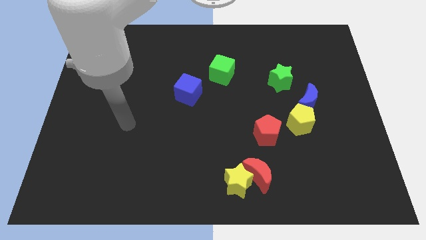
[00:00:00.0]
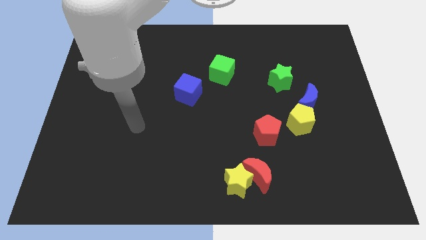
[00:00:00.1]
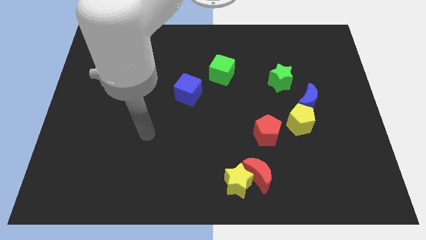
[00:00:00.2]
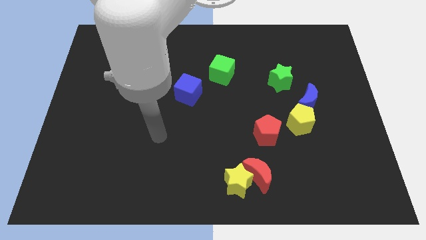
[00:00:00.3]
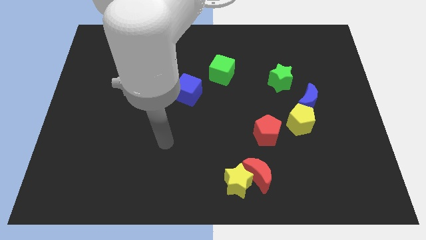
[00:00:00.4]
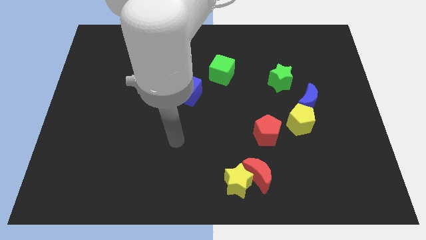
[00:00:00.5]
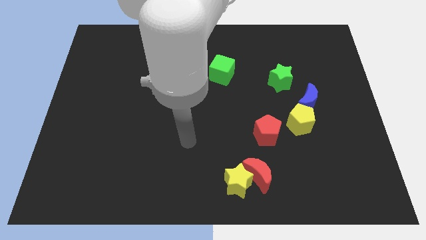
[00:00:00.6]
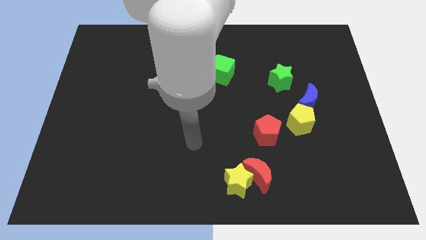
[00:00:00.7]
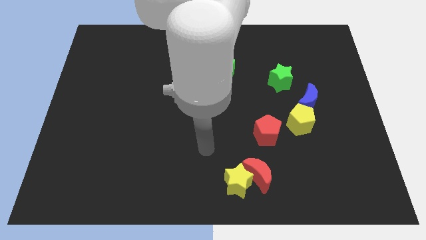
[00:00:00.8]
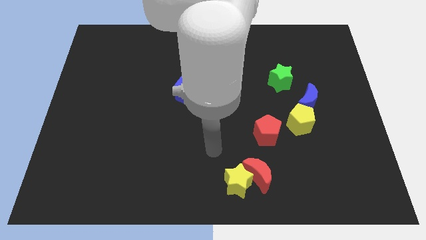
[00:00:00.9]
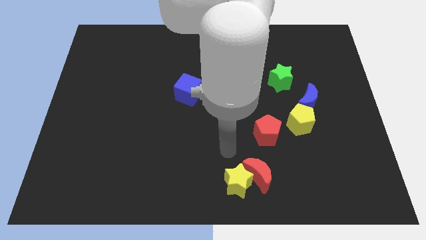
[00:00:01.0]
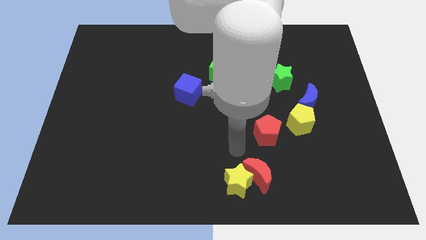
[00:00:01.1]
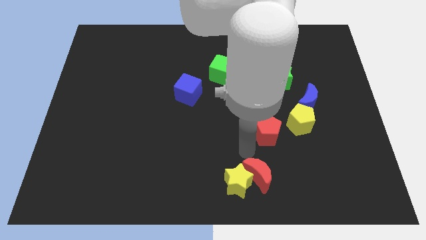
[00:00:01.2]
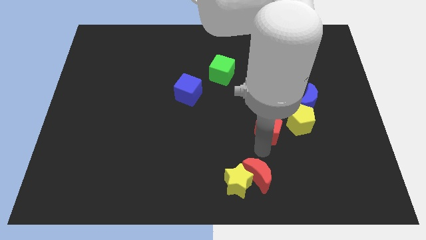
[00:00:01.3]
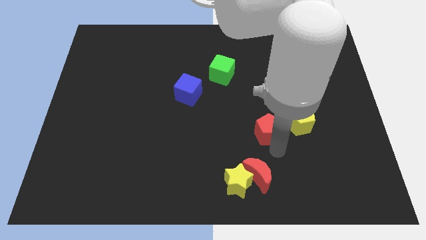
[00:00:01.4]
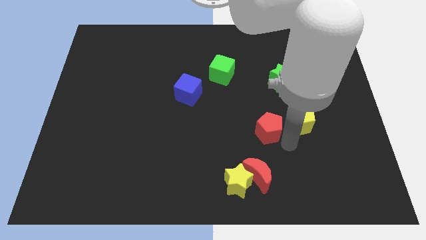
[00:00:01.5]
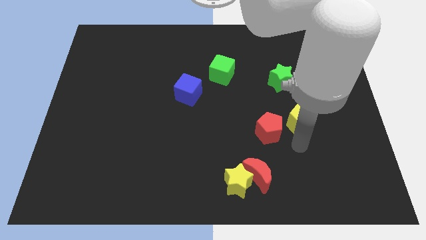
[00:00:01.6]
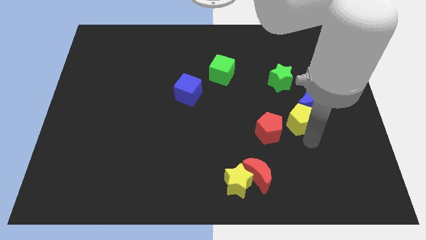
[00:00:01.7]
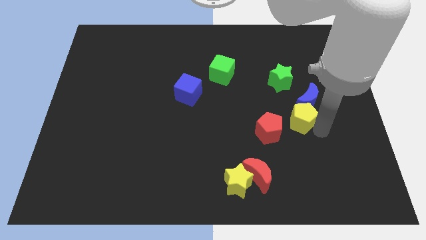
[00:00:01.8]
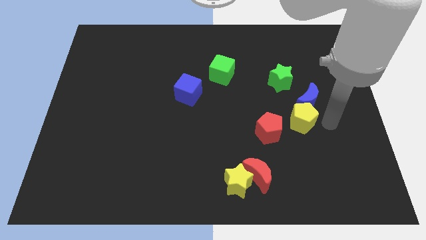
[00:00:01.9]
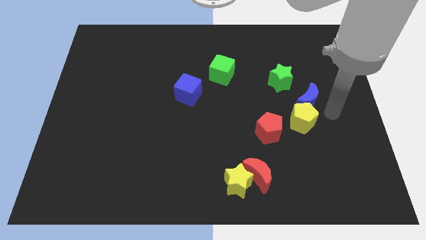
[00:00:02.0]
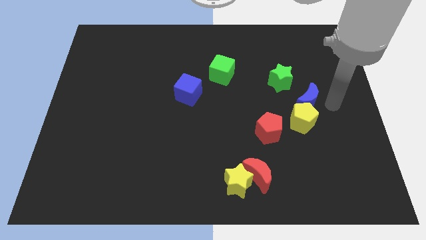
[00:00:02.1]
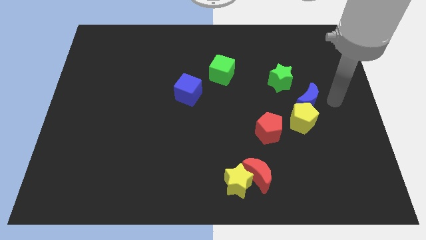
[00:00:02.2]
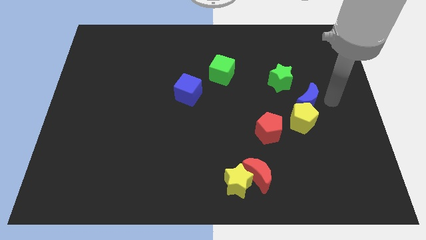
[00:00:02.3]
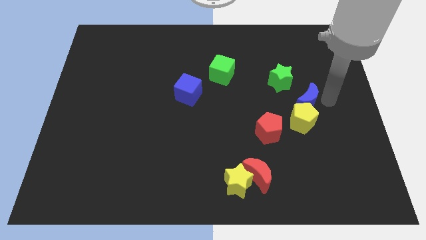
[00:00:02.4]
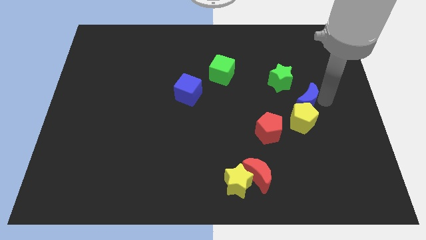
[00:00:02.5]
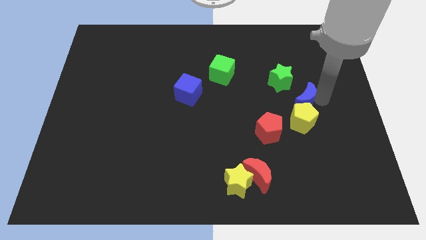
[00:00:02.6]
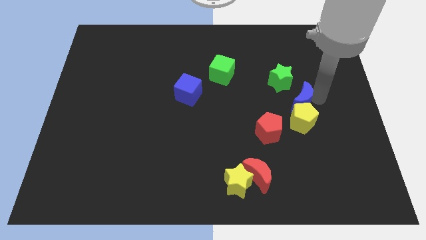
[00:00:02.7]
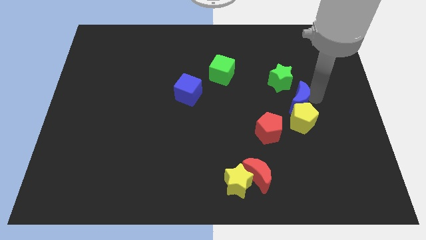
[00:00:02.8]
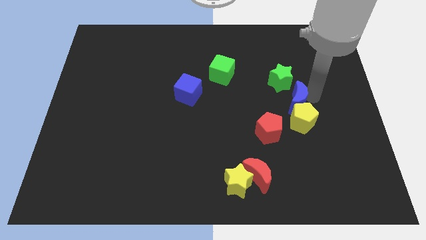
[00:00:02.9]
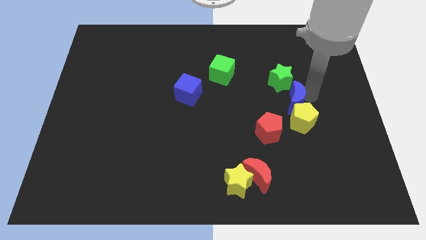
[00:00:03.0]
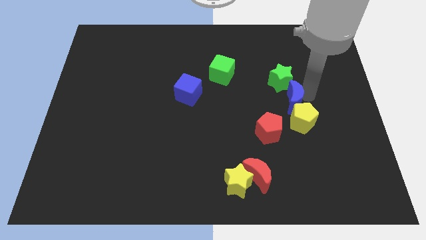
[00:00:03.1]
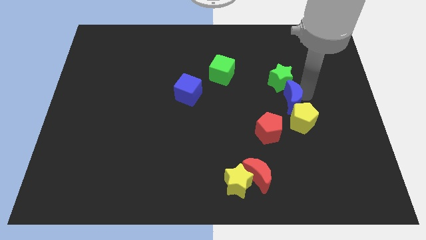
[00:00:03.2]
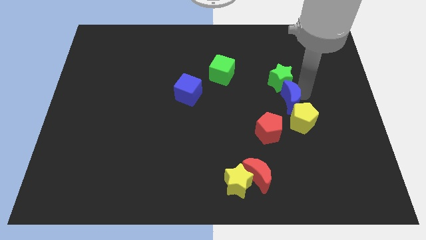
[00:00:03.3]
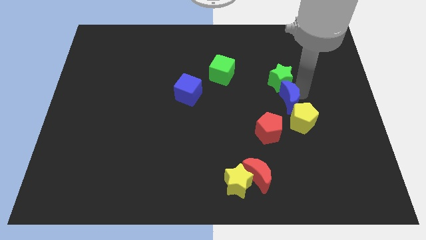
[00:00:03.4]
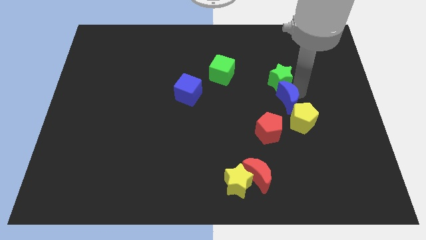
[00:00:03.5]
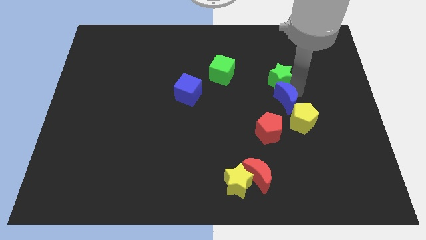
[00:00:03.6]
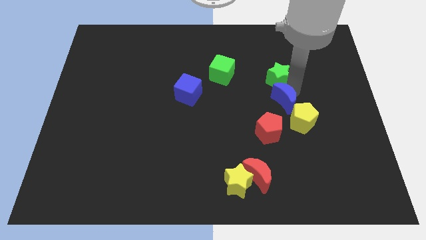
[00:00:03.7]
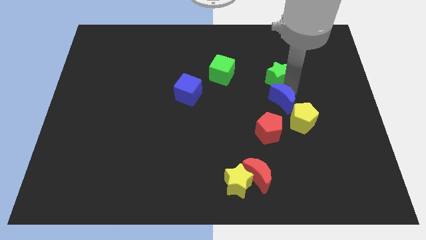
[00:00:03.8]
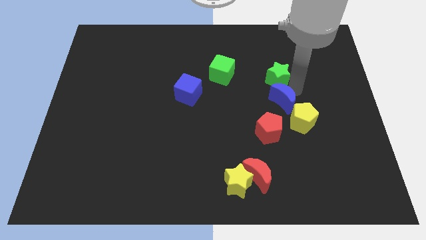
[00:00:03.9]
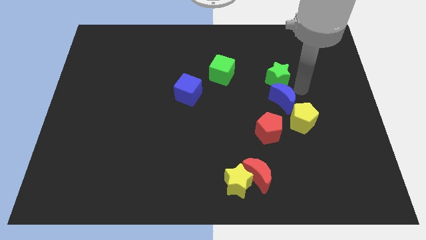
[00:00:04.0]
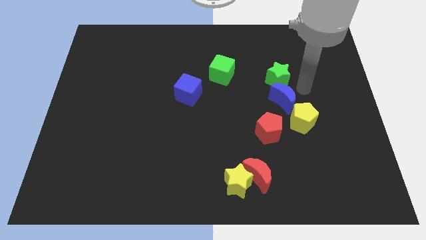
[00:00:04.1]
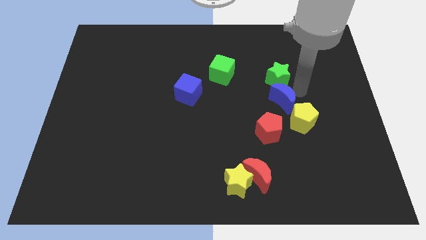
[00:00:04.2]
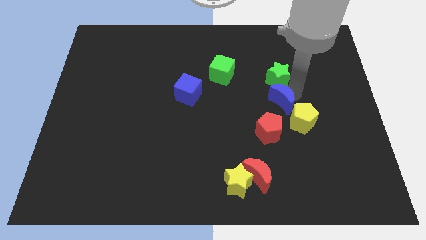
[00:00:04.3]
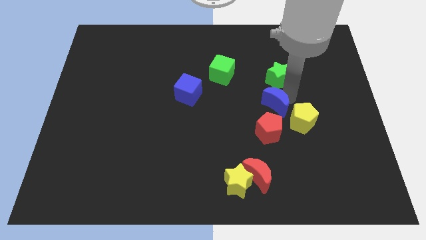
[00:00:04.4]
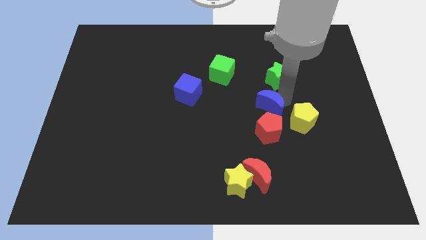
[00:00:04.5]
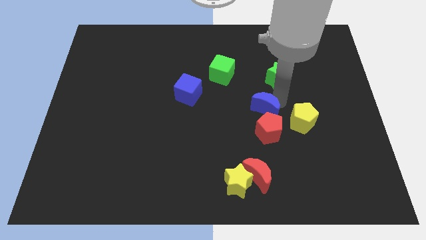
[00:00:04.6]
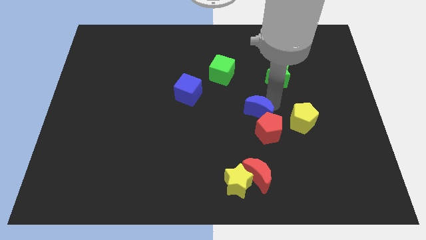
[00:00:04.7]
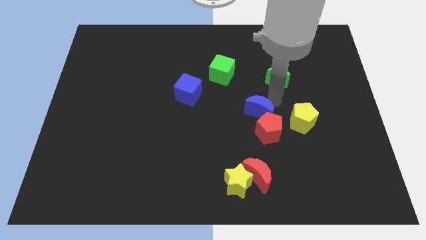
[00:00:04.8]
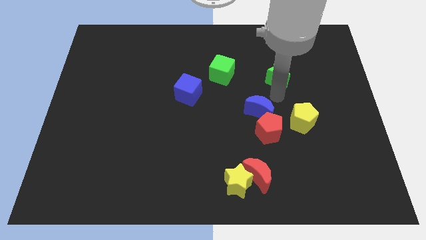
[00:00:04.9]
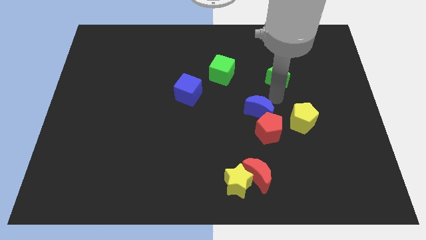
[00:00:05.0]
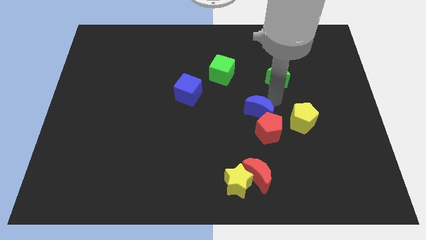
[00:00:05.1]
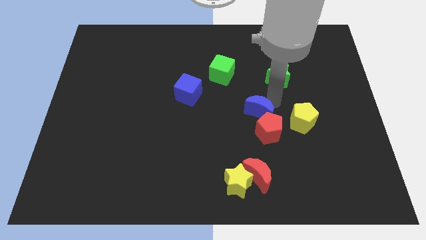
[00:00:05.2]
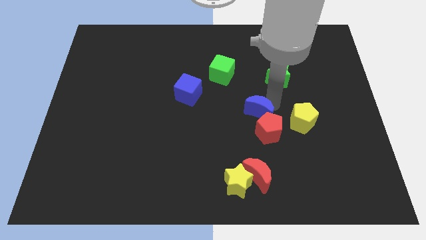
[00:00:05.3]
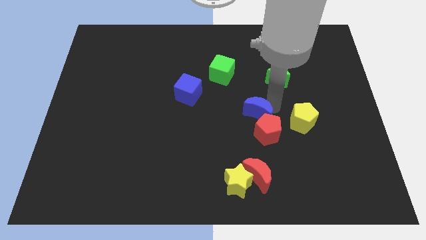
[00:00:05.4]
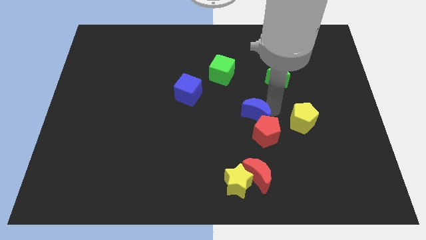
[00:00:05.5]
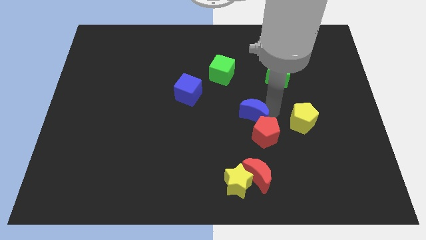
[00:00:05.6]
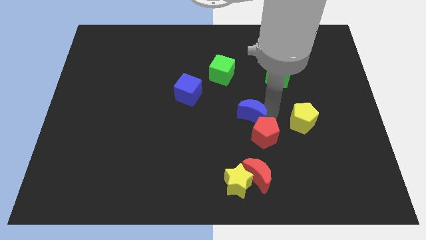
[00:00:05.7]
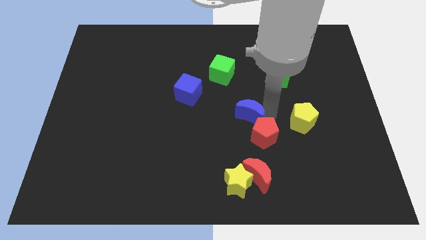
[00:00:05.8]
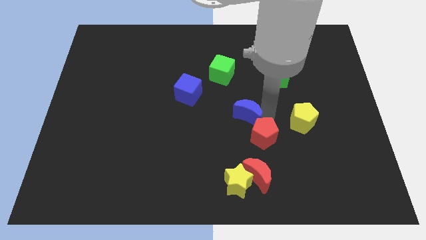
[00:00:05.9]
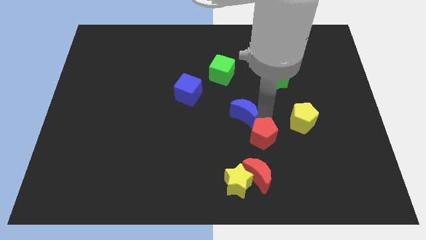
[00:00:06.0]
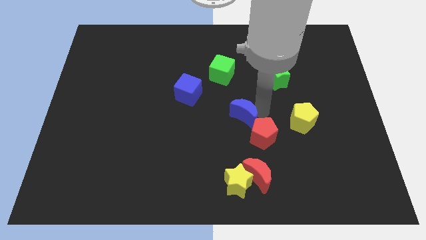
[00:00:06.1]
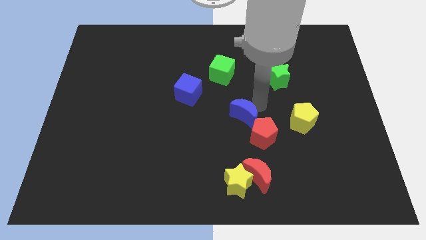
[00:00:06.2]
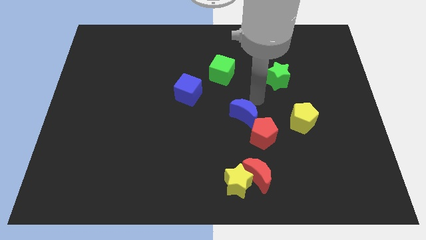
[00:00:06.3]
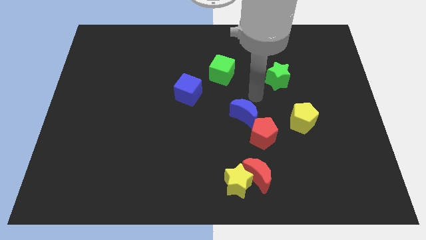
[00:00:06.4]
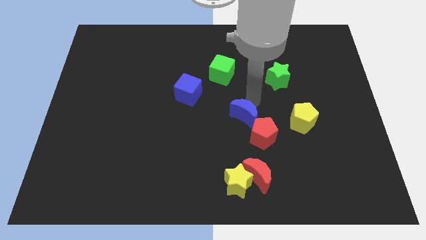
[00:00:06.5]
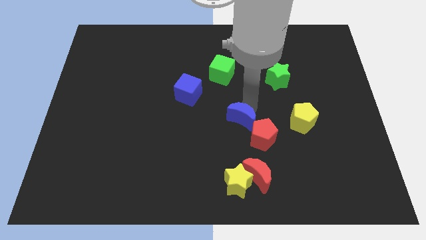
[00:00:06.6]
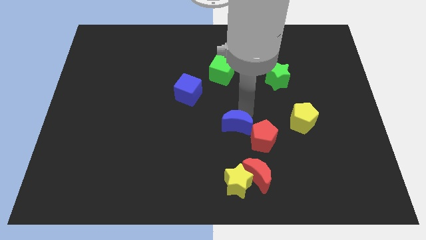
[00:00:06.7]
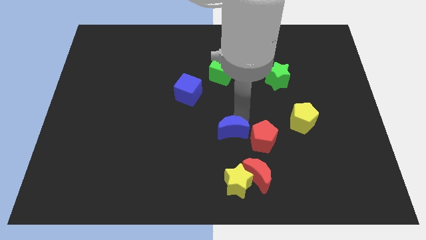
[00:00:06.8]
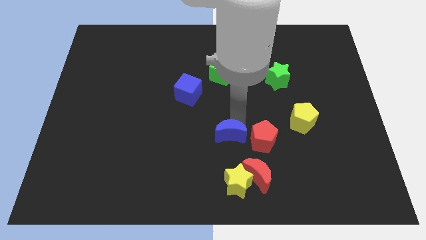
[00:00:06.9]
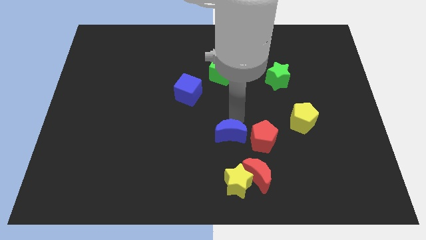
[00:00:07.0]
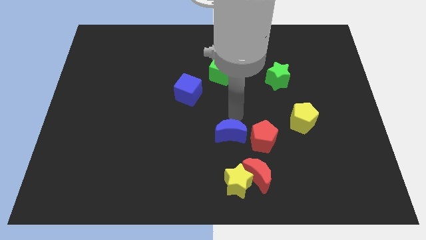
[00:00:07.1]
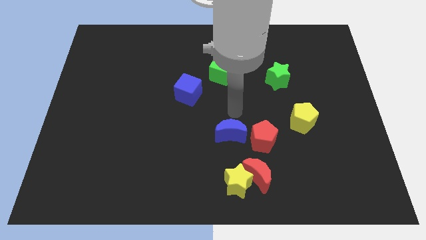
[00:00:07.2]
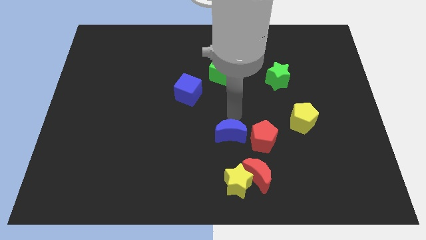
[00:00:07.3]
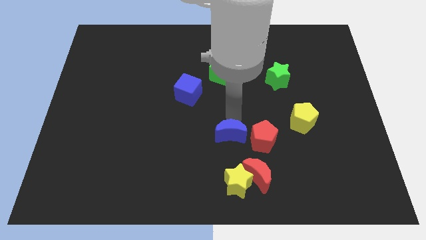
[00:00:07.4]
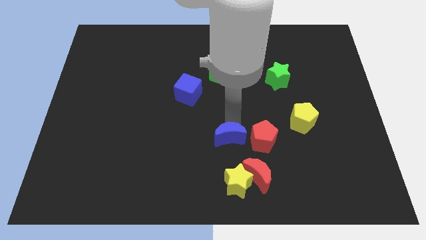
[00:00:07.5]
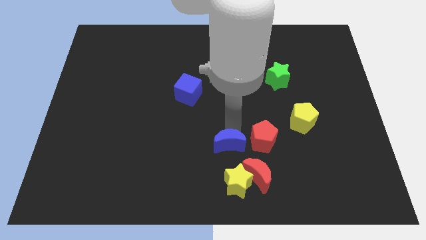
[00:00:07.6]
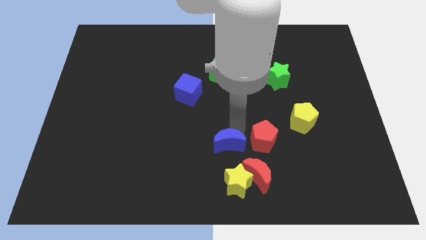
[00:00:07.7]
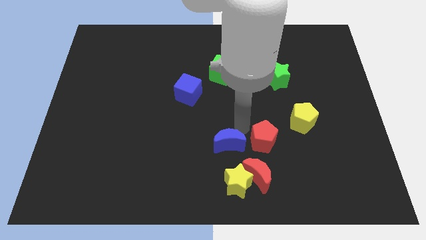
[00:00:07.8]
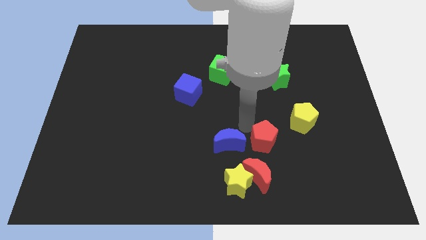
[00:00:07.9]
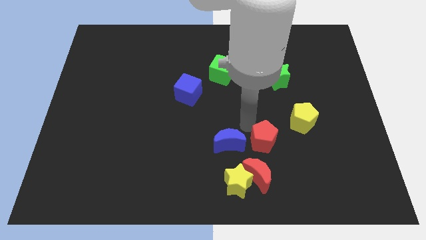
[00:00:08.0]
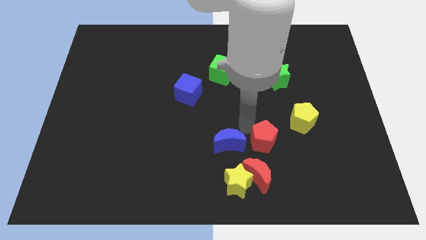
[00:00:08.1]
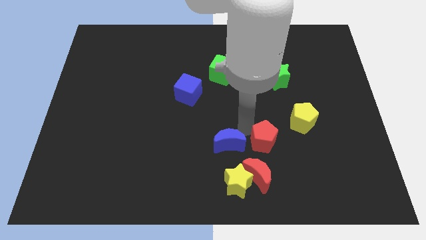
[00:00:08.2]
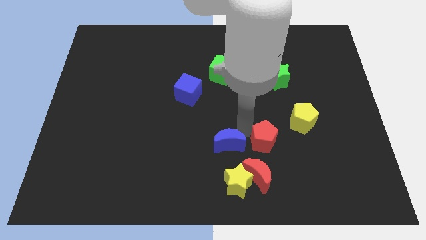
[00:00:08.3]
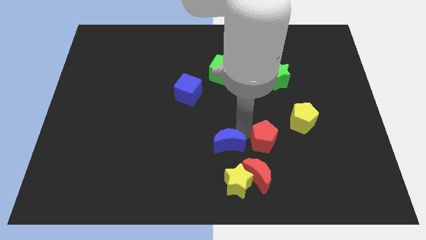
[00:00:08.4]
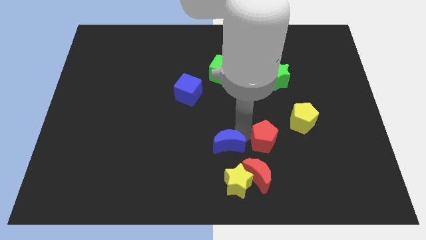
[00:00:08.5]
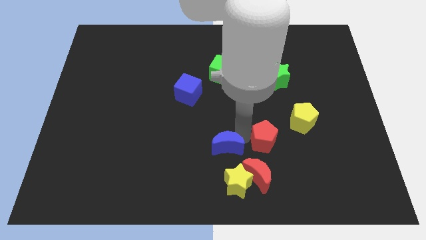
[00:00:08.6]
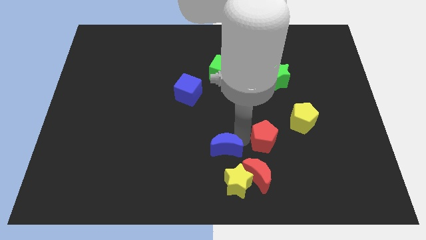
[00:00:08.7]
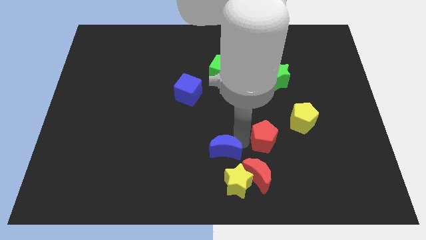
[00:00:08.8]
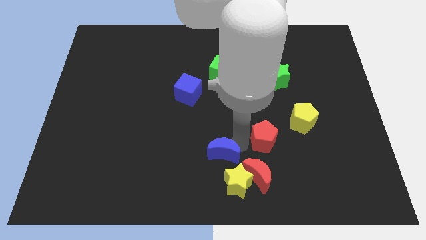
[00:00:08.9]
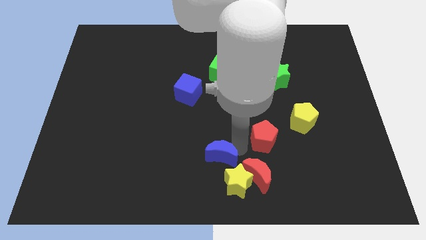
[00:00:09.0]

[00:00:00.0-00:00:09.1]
put the blue moon to the bottom side
